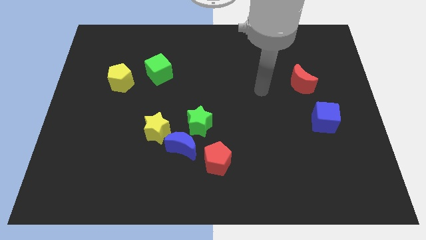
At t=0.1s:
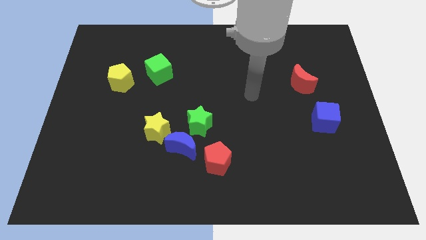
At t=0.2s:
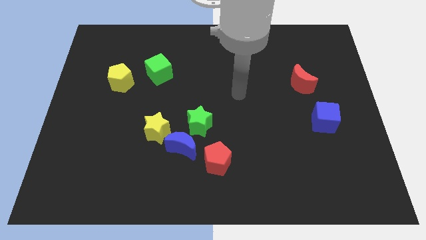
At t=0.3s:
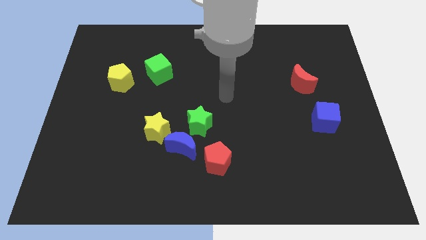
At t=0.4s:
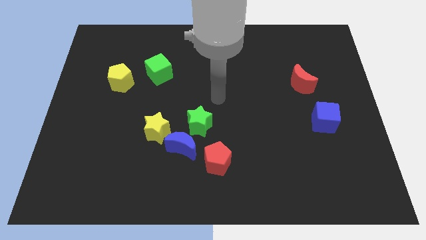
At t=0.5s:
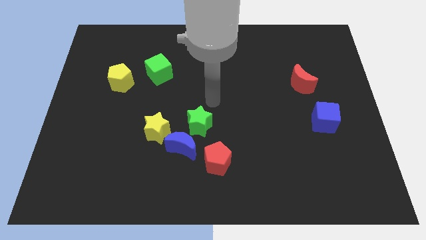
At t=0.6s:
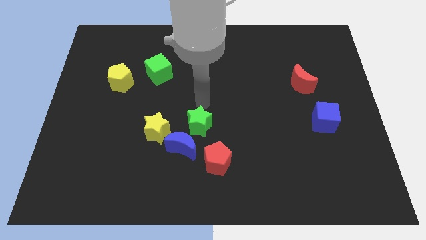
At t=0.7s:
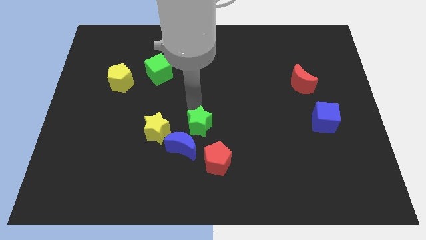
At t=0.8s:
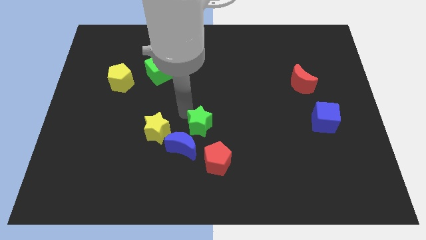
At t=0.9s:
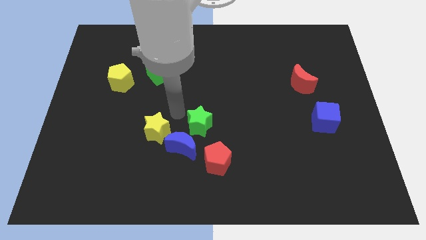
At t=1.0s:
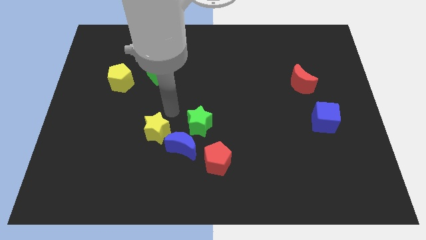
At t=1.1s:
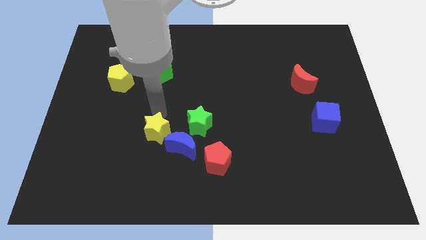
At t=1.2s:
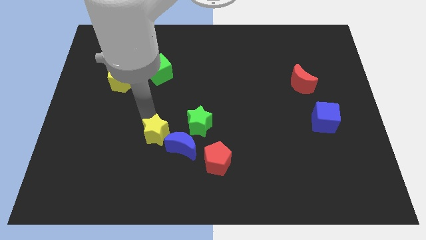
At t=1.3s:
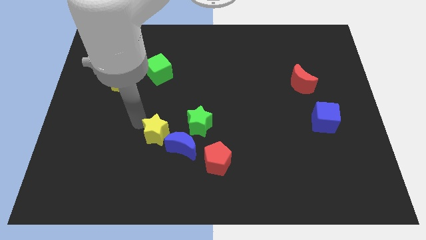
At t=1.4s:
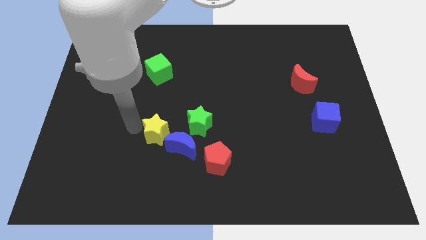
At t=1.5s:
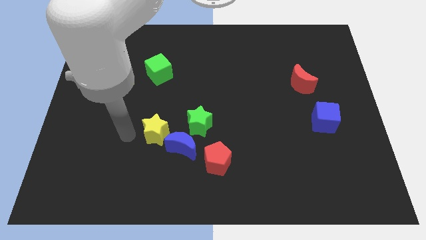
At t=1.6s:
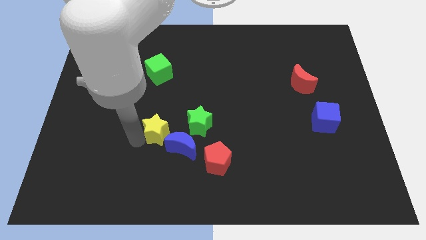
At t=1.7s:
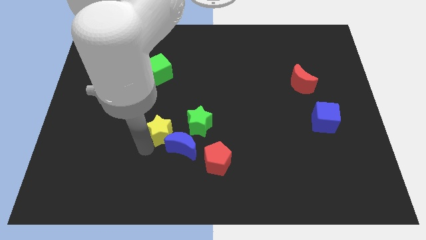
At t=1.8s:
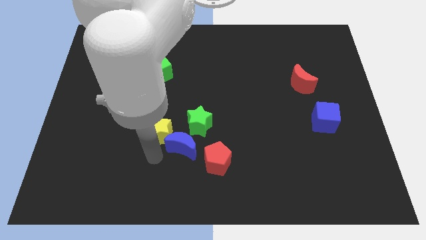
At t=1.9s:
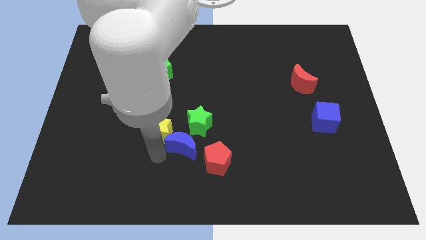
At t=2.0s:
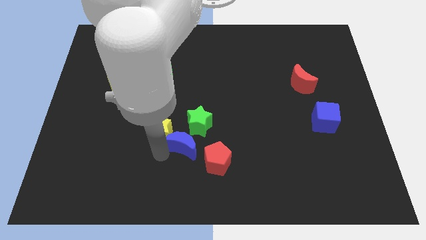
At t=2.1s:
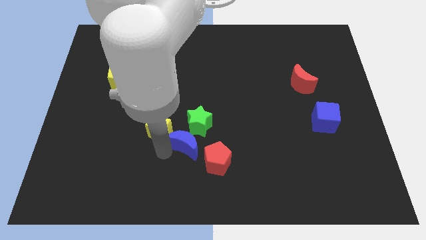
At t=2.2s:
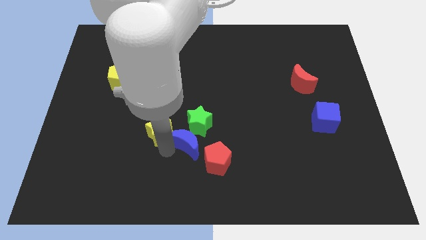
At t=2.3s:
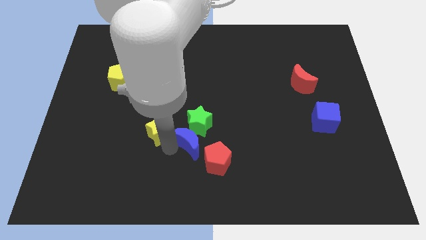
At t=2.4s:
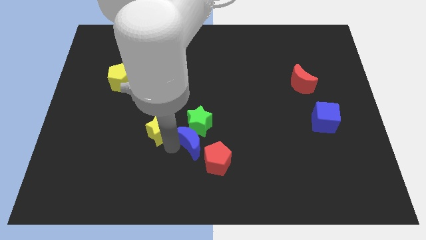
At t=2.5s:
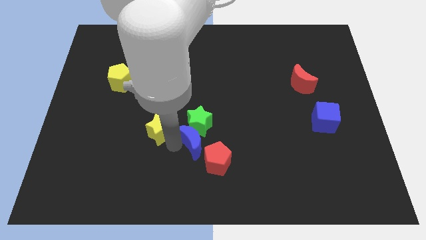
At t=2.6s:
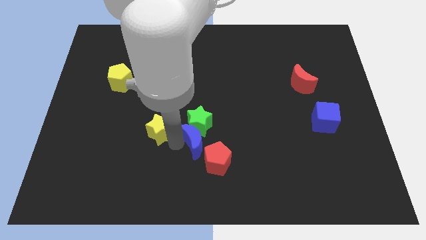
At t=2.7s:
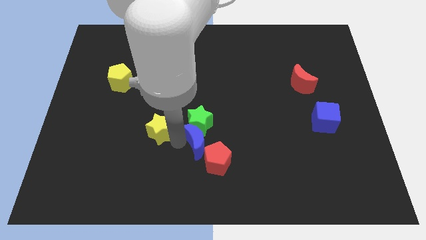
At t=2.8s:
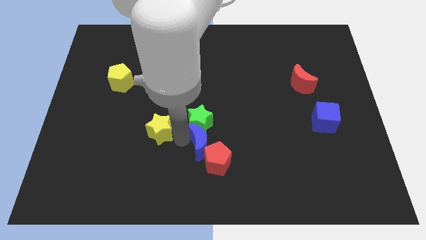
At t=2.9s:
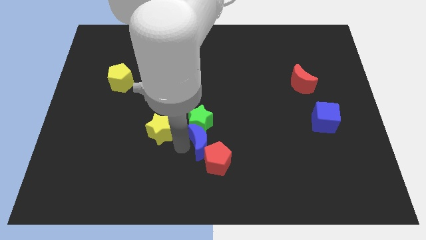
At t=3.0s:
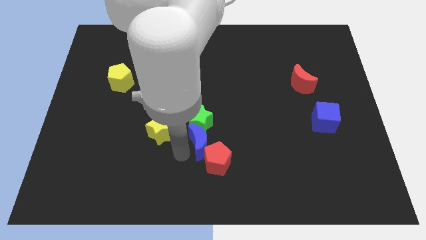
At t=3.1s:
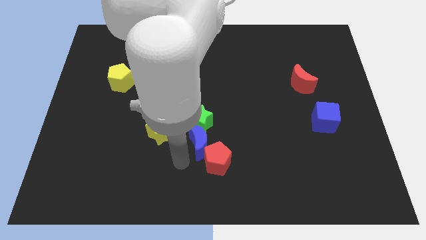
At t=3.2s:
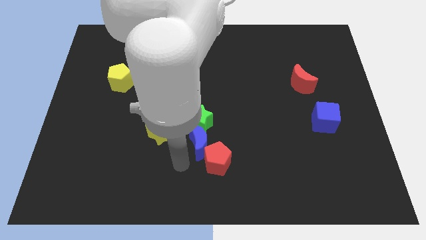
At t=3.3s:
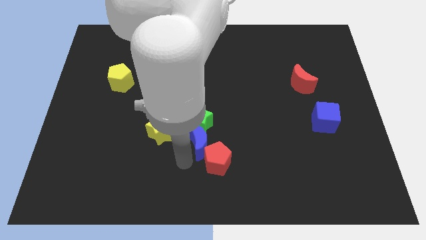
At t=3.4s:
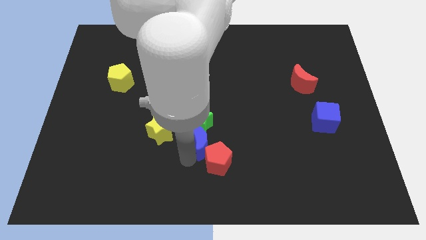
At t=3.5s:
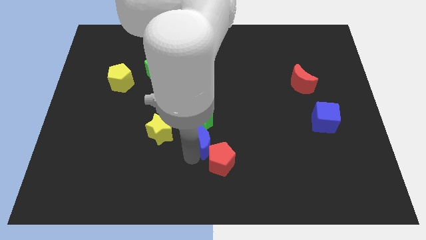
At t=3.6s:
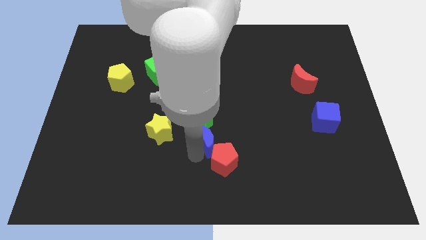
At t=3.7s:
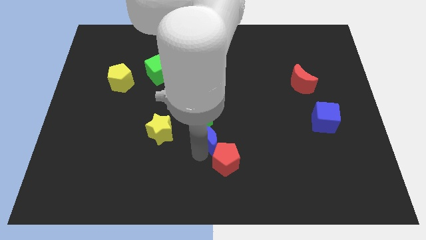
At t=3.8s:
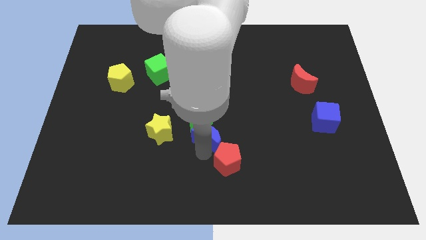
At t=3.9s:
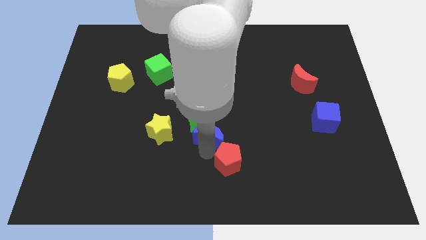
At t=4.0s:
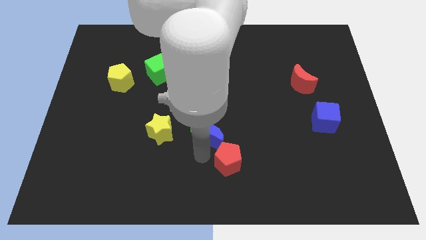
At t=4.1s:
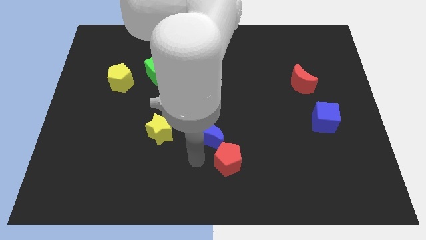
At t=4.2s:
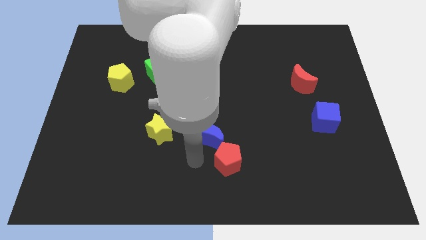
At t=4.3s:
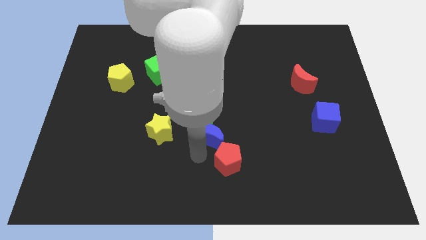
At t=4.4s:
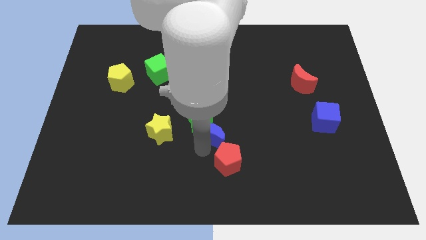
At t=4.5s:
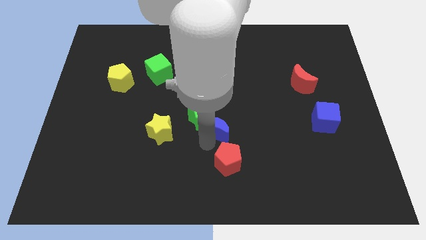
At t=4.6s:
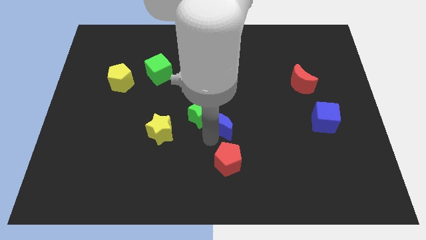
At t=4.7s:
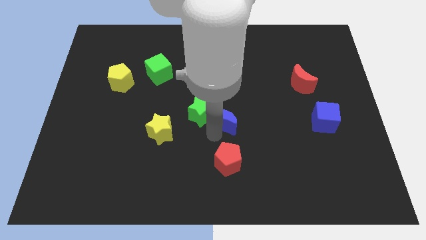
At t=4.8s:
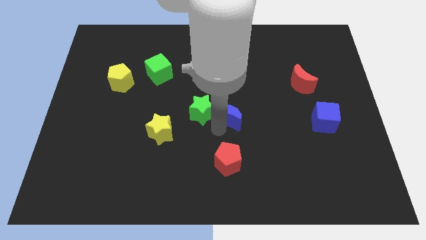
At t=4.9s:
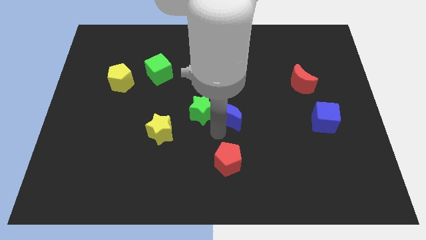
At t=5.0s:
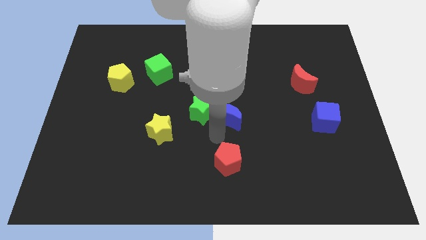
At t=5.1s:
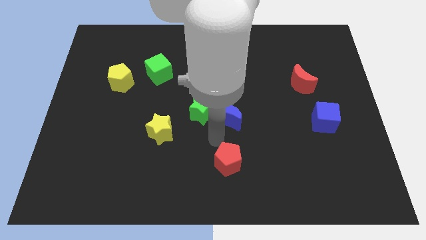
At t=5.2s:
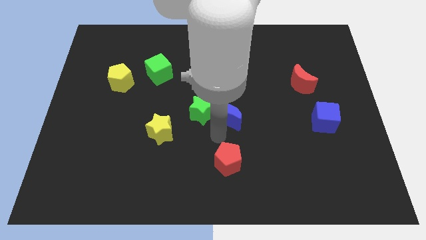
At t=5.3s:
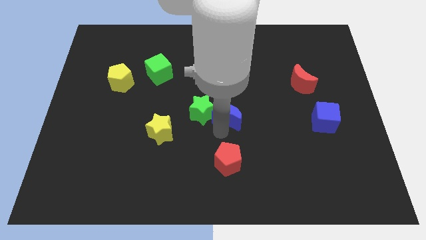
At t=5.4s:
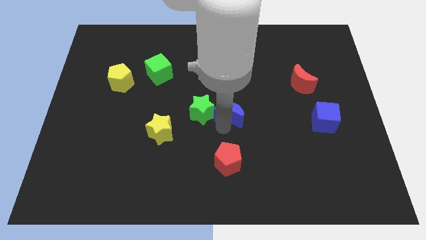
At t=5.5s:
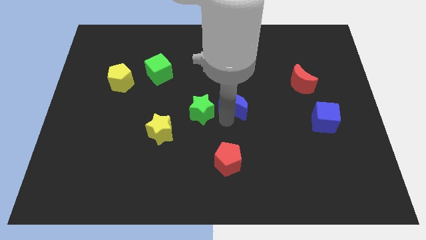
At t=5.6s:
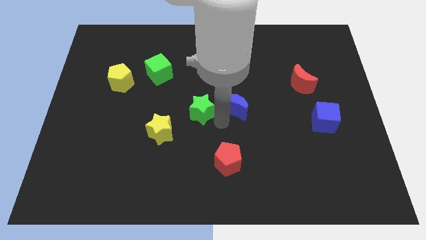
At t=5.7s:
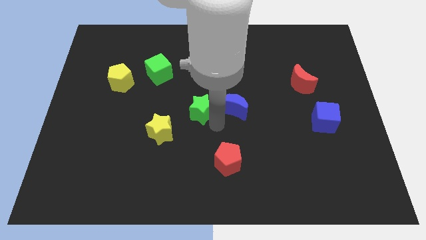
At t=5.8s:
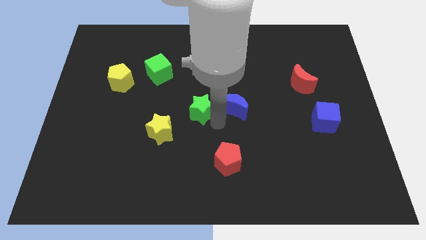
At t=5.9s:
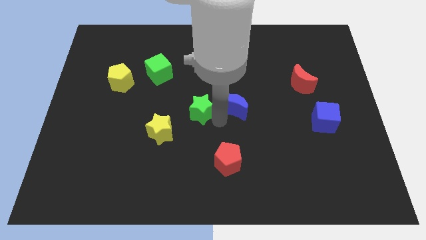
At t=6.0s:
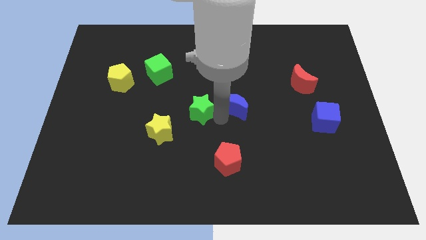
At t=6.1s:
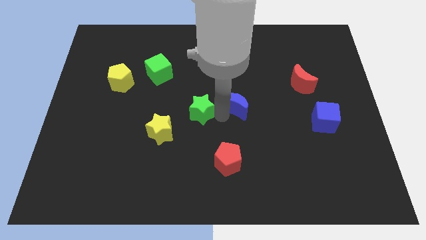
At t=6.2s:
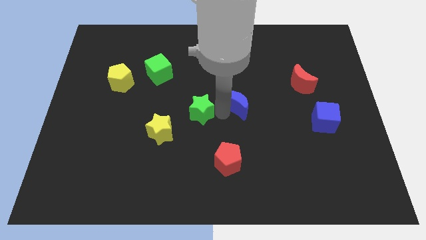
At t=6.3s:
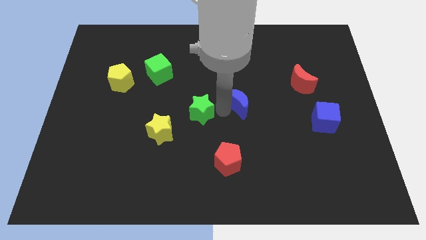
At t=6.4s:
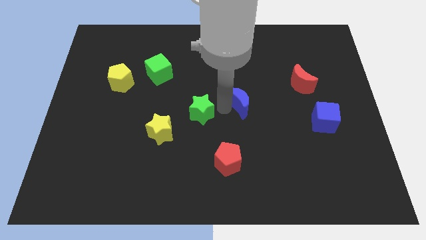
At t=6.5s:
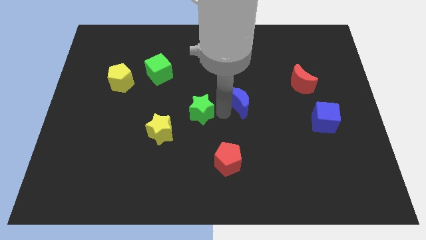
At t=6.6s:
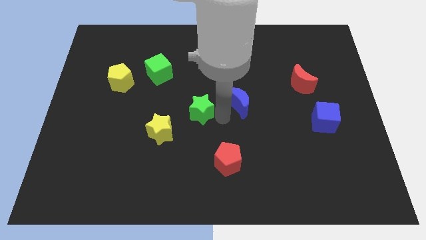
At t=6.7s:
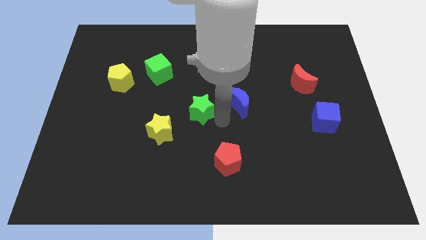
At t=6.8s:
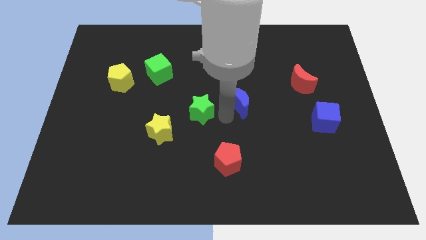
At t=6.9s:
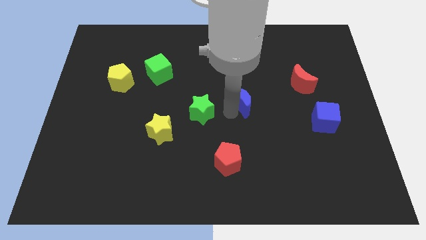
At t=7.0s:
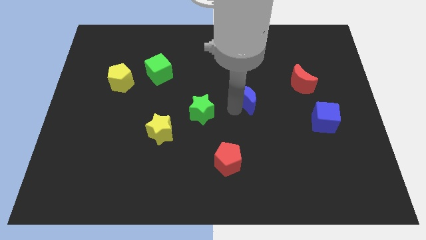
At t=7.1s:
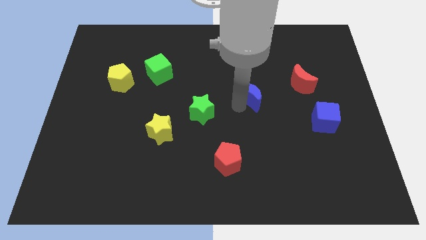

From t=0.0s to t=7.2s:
push the blue moon upwards and right diagonally

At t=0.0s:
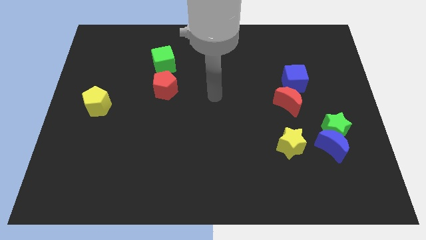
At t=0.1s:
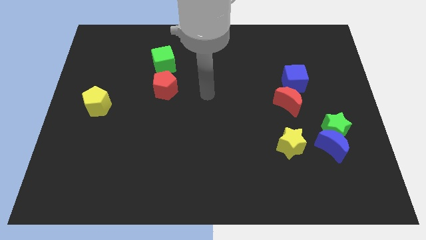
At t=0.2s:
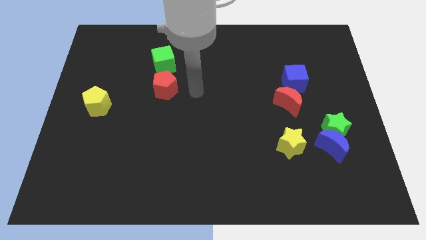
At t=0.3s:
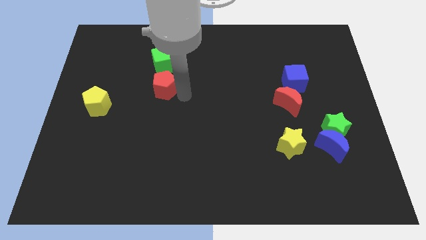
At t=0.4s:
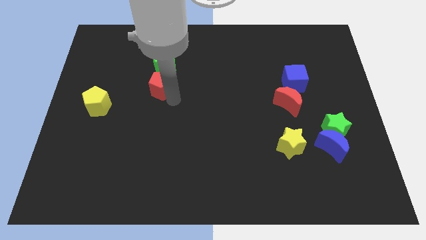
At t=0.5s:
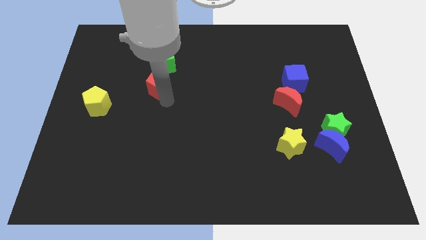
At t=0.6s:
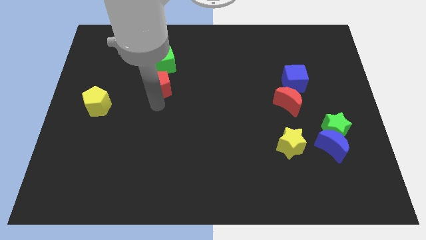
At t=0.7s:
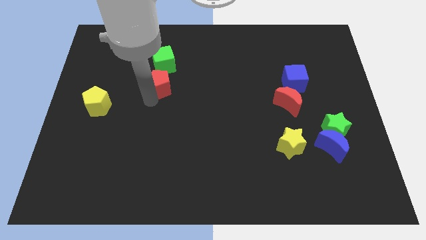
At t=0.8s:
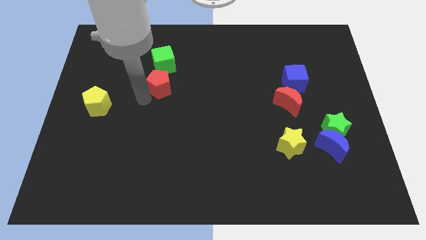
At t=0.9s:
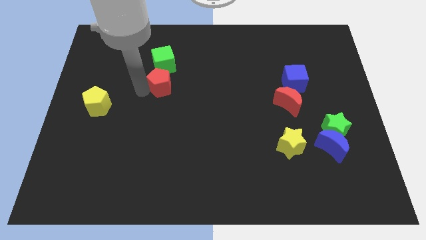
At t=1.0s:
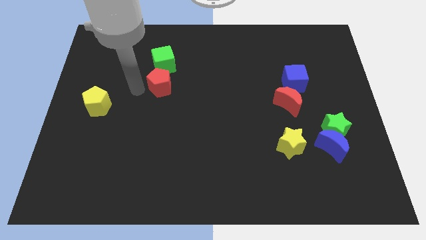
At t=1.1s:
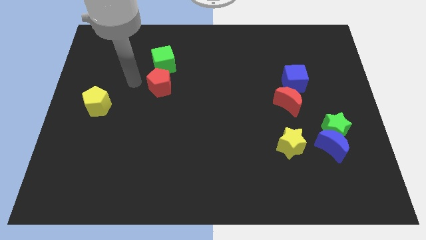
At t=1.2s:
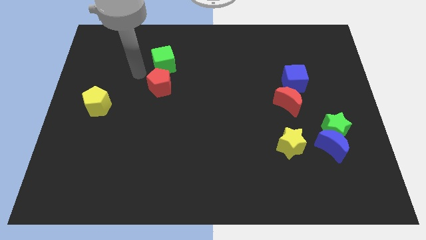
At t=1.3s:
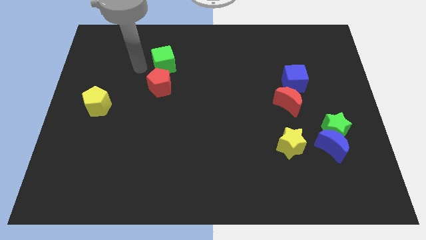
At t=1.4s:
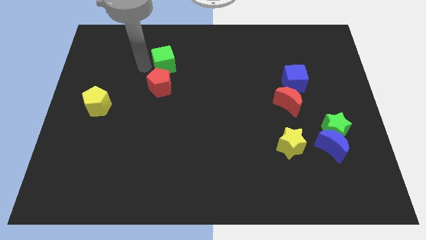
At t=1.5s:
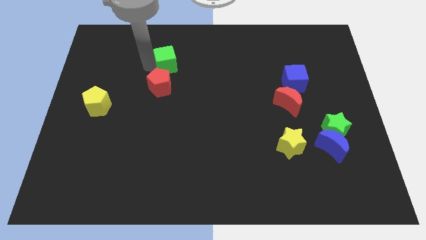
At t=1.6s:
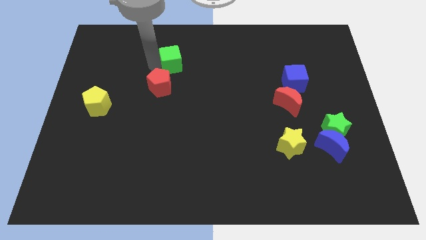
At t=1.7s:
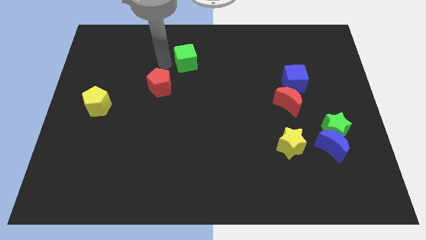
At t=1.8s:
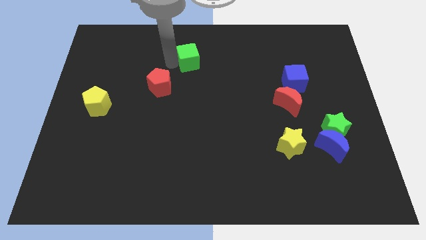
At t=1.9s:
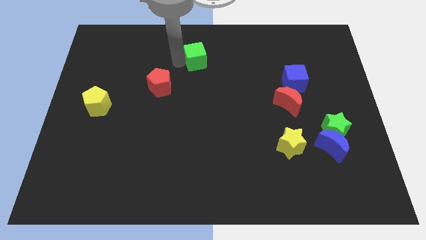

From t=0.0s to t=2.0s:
slightly move the green cube right
